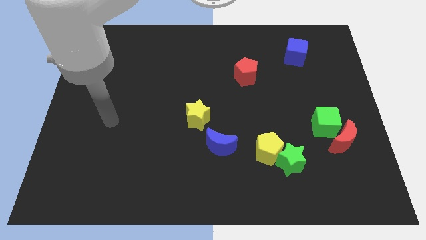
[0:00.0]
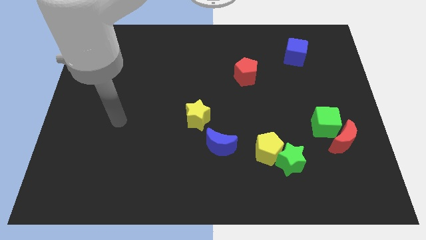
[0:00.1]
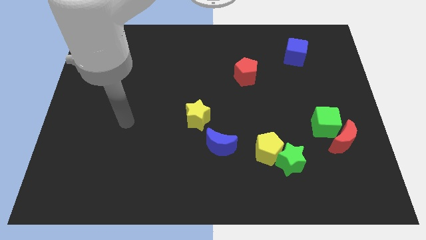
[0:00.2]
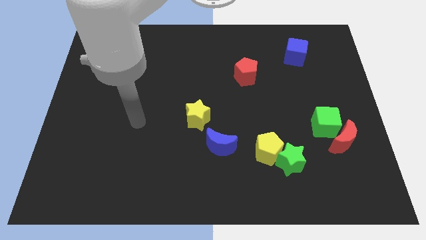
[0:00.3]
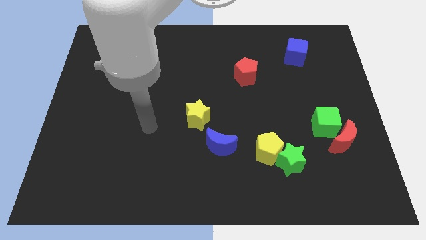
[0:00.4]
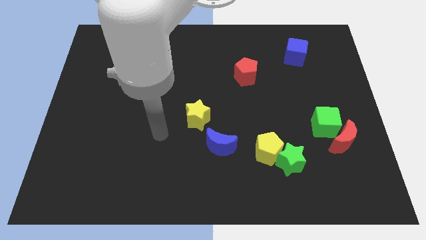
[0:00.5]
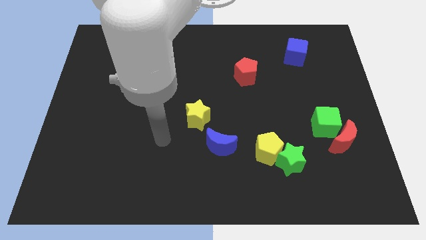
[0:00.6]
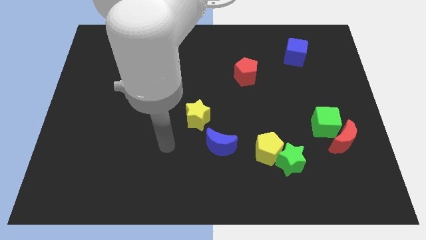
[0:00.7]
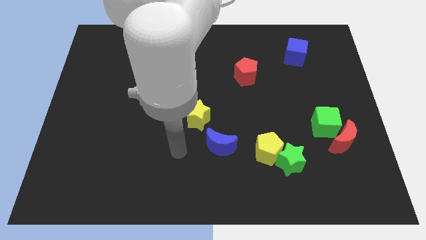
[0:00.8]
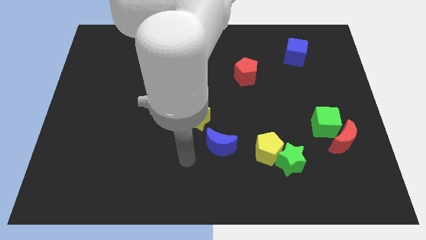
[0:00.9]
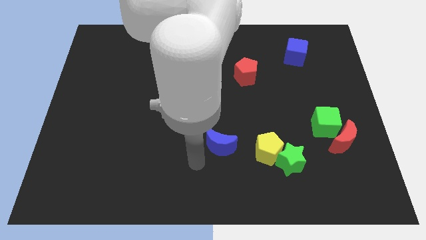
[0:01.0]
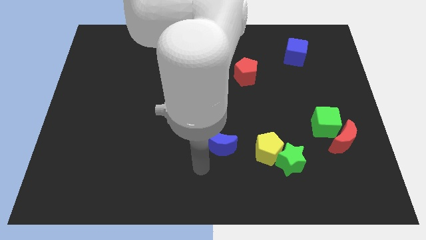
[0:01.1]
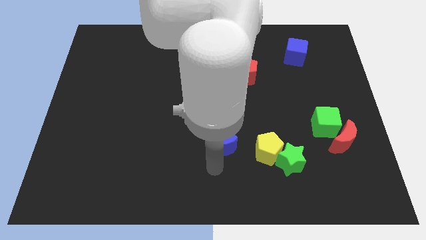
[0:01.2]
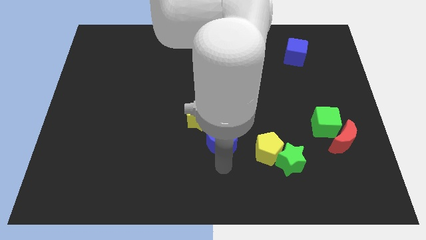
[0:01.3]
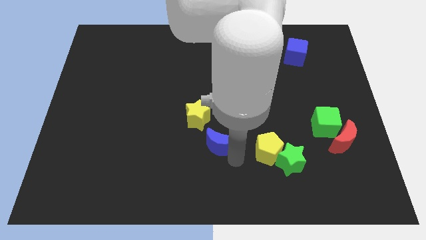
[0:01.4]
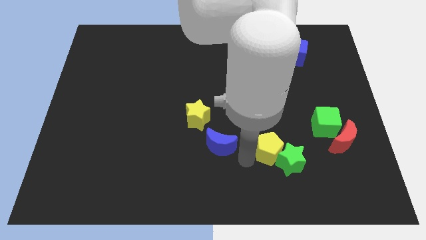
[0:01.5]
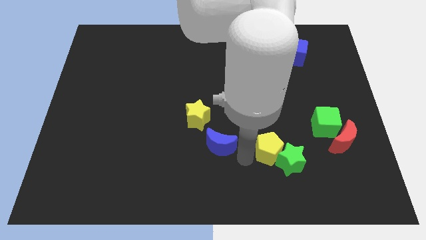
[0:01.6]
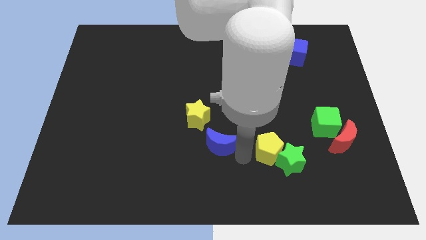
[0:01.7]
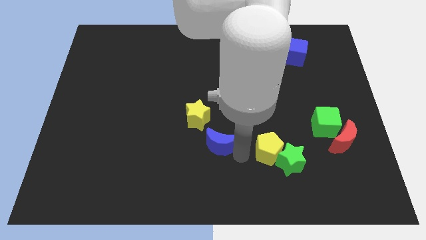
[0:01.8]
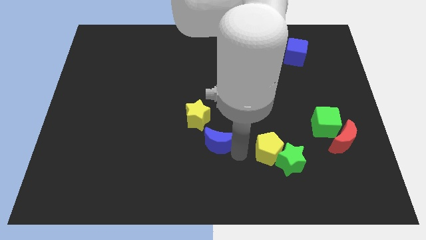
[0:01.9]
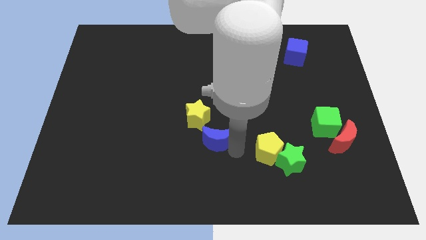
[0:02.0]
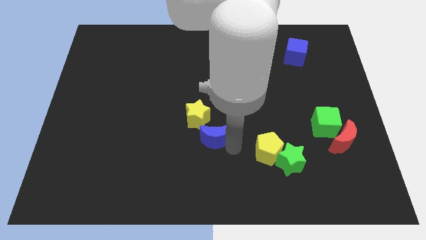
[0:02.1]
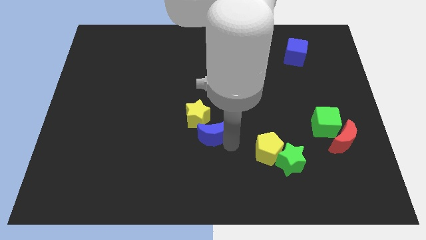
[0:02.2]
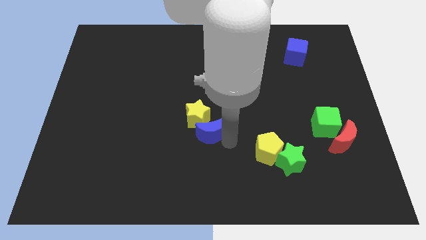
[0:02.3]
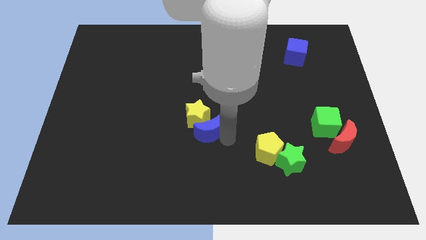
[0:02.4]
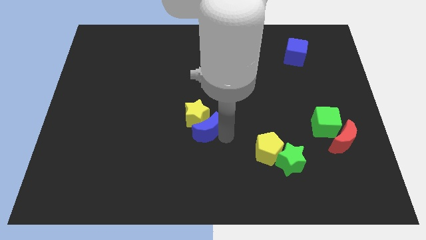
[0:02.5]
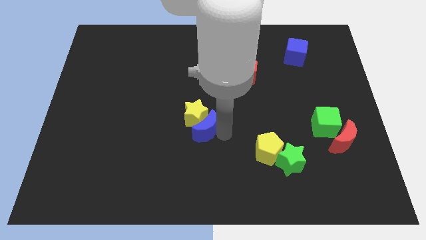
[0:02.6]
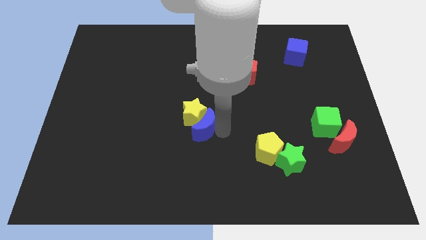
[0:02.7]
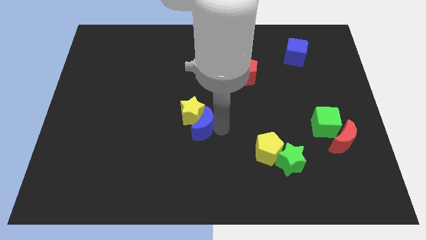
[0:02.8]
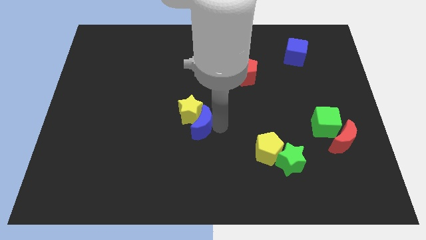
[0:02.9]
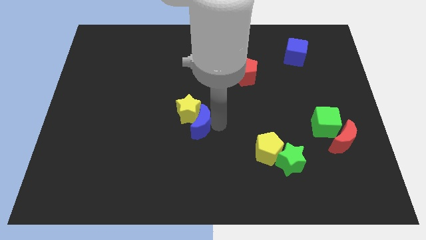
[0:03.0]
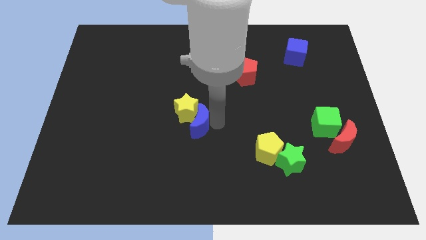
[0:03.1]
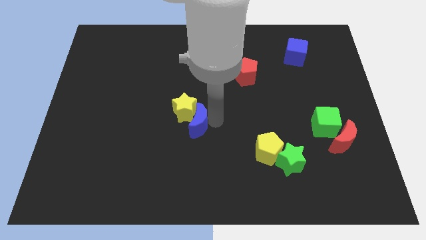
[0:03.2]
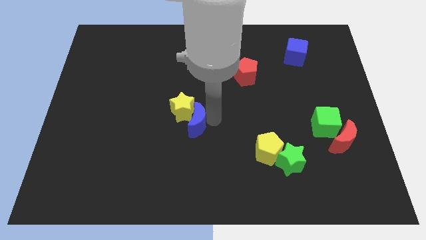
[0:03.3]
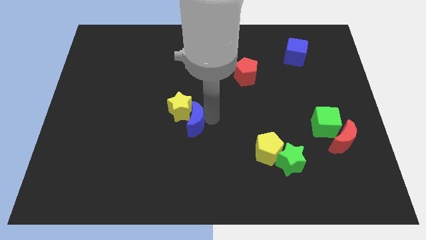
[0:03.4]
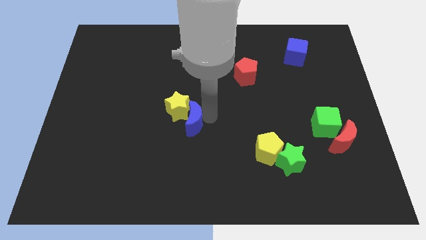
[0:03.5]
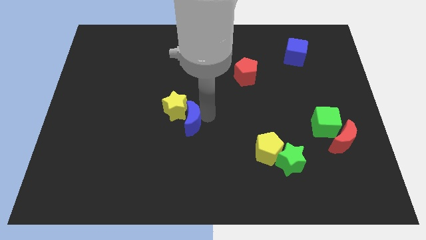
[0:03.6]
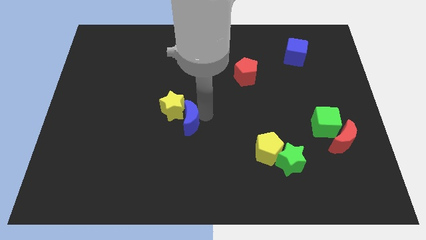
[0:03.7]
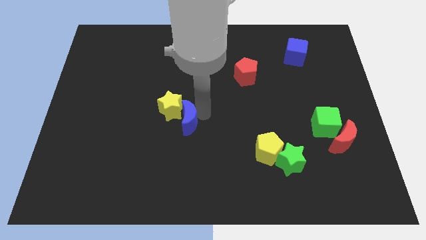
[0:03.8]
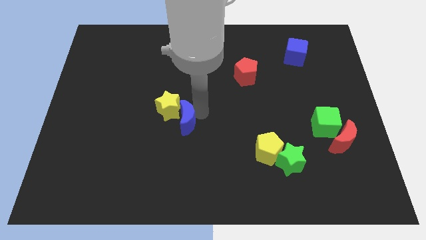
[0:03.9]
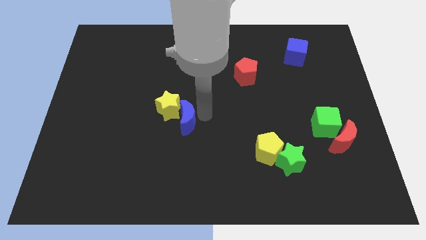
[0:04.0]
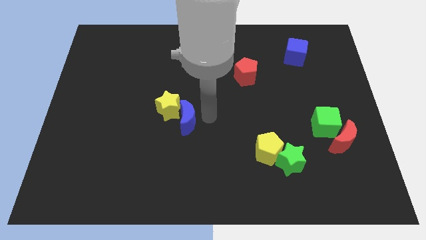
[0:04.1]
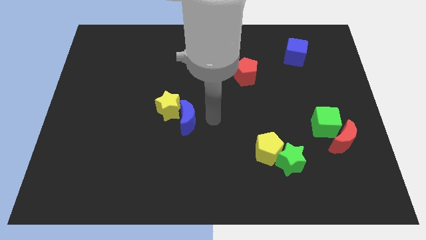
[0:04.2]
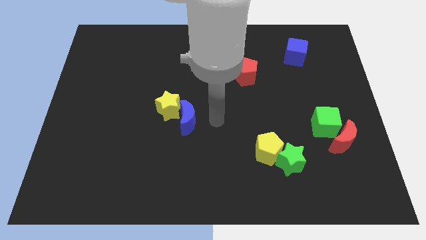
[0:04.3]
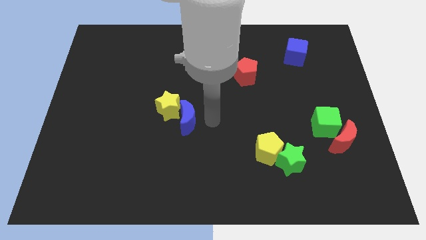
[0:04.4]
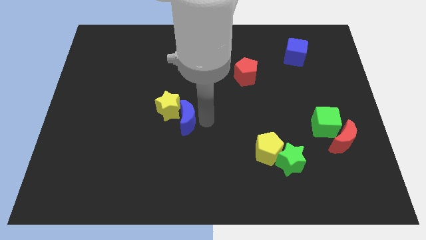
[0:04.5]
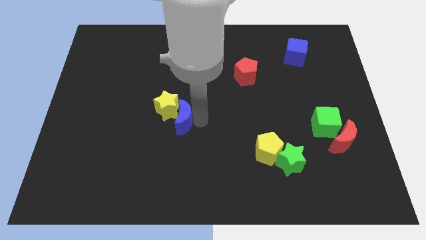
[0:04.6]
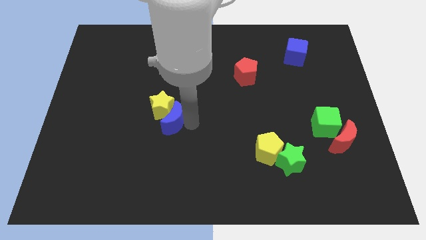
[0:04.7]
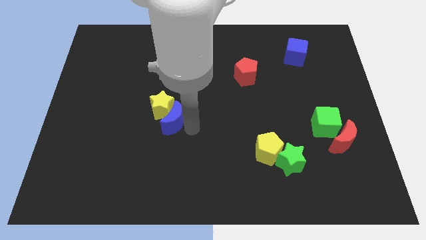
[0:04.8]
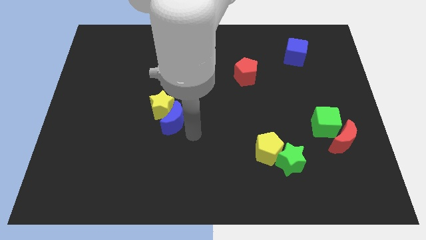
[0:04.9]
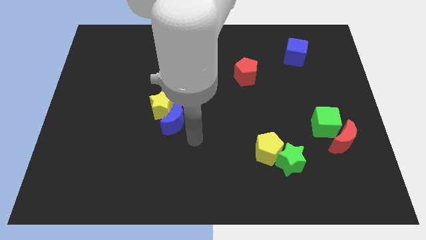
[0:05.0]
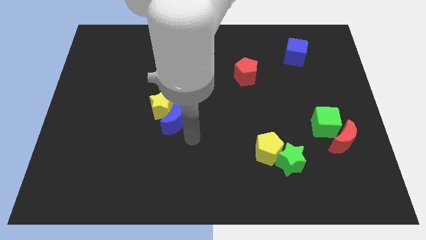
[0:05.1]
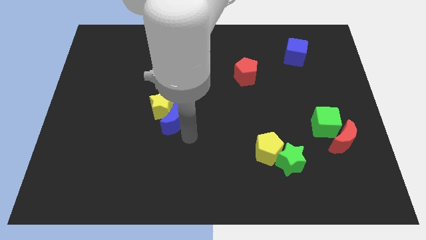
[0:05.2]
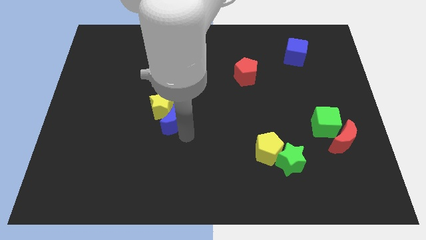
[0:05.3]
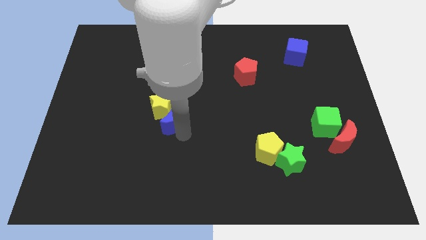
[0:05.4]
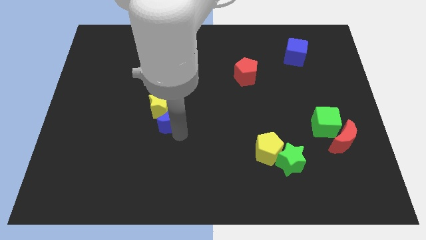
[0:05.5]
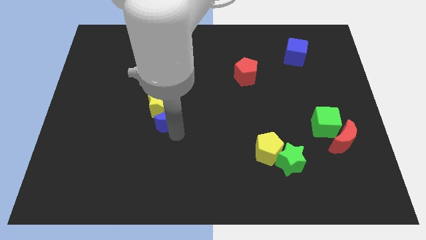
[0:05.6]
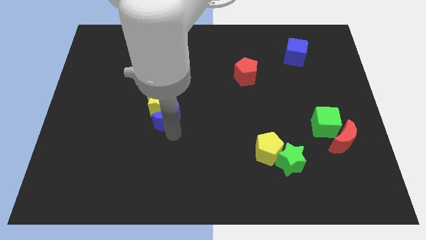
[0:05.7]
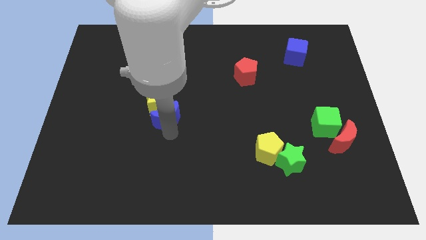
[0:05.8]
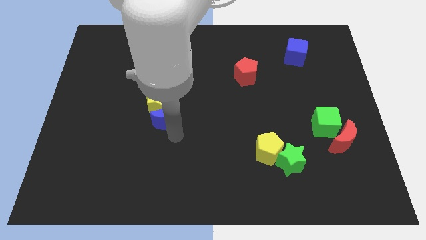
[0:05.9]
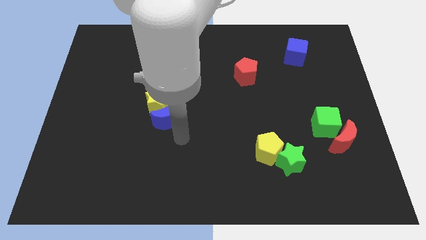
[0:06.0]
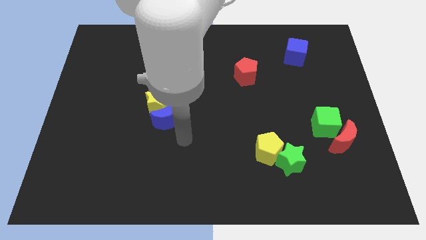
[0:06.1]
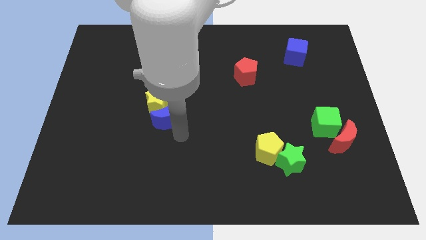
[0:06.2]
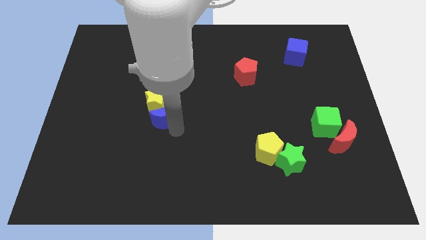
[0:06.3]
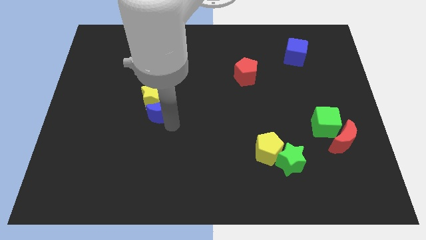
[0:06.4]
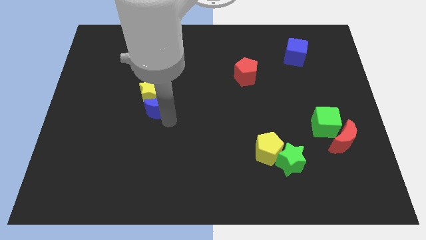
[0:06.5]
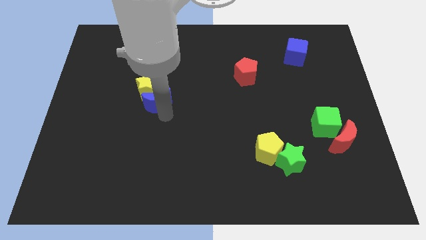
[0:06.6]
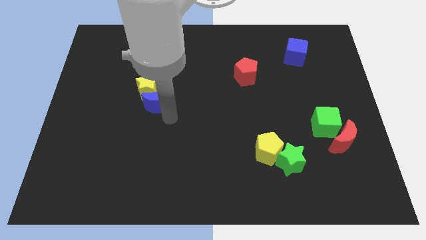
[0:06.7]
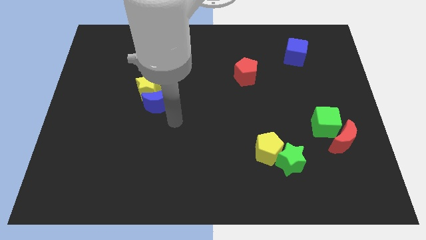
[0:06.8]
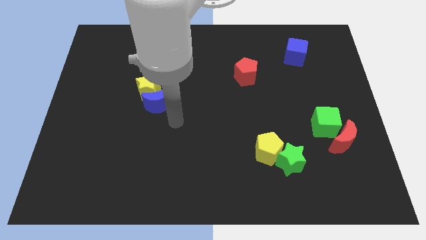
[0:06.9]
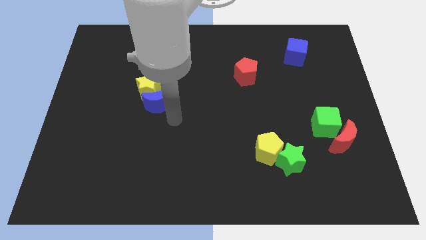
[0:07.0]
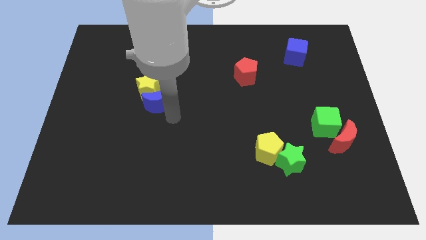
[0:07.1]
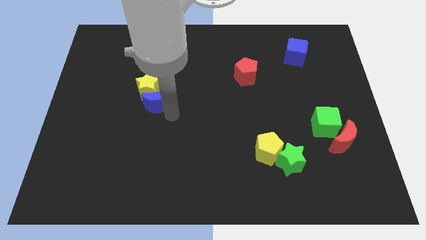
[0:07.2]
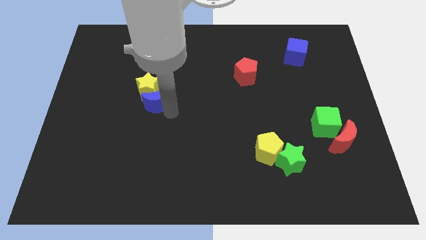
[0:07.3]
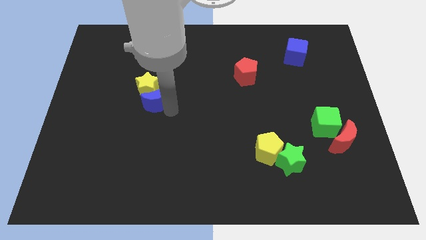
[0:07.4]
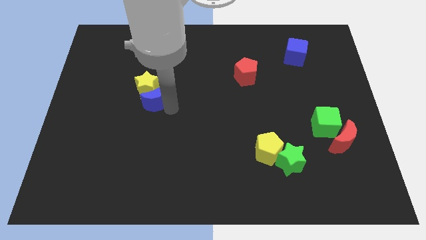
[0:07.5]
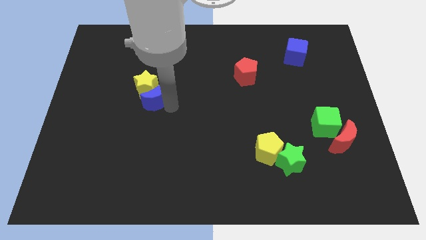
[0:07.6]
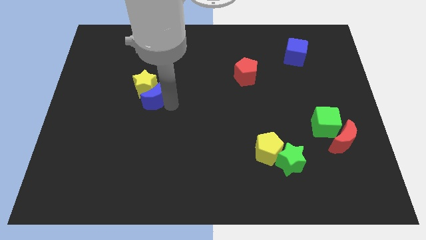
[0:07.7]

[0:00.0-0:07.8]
move the blue moon diagonally up and left

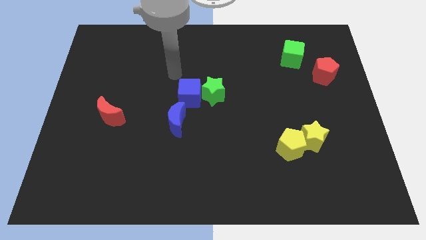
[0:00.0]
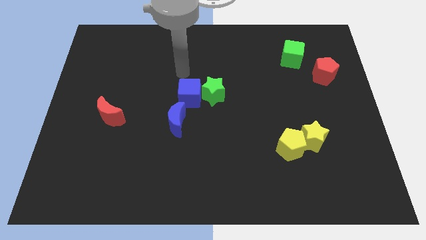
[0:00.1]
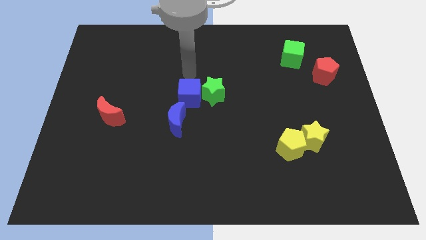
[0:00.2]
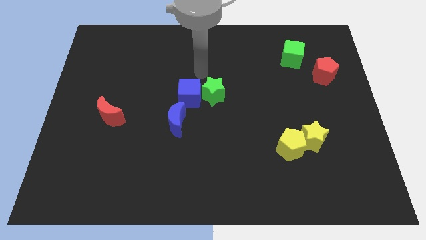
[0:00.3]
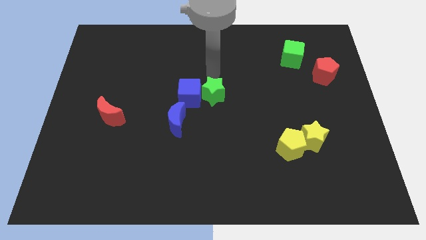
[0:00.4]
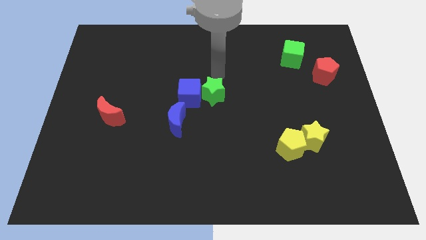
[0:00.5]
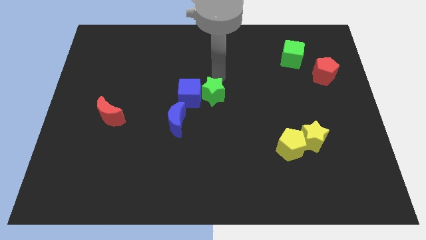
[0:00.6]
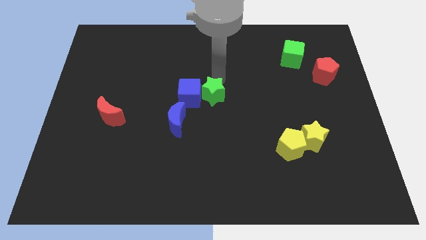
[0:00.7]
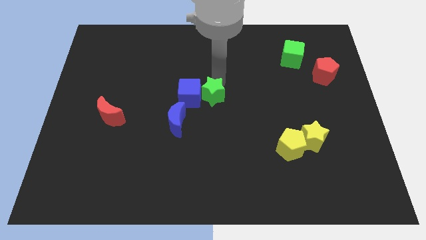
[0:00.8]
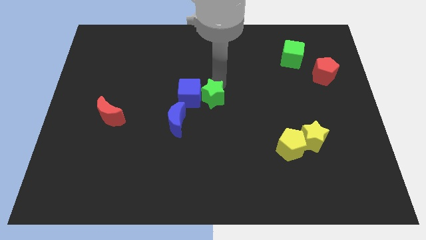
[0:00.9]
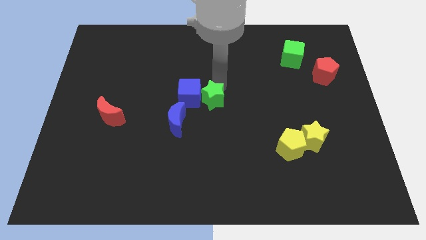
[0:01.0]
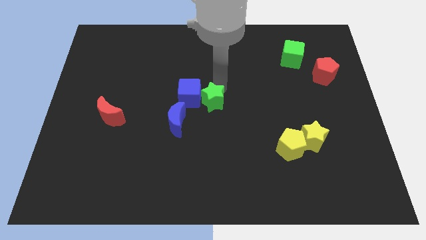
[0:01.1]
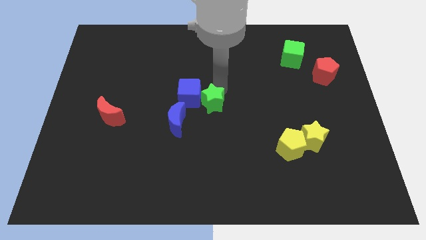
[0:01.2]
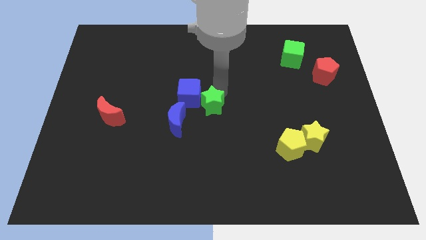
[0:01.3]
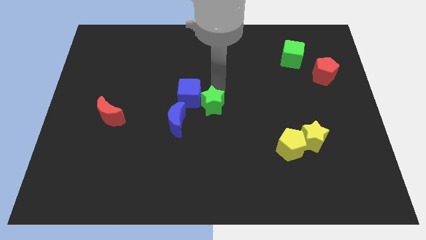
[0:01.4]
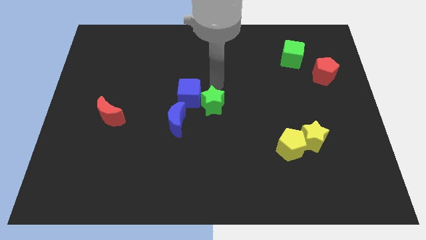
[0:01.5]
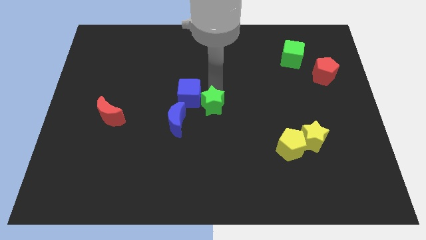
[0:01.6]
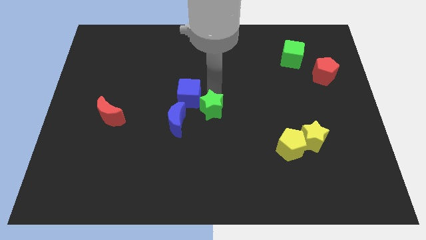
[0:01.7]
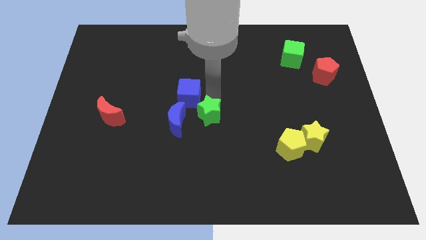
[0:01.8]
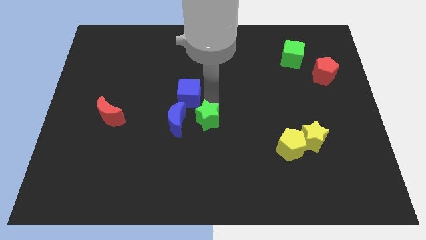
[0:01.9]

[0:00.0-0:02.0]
move the green star a little bit downwards
